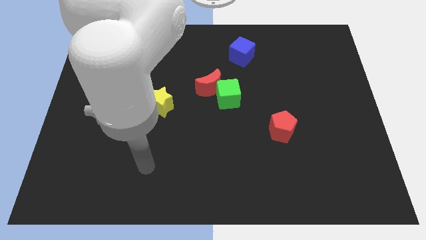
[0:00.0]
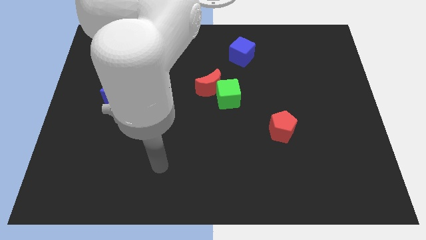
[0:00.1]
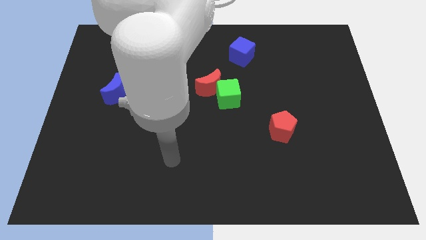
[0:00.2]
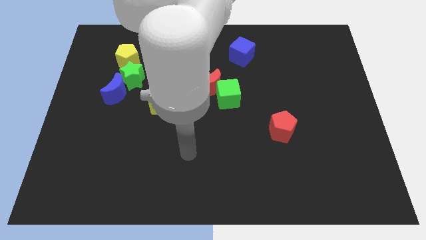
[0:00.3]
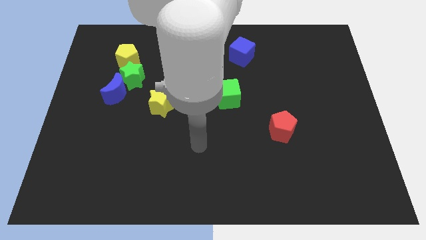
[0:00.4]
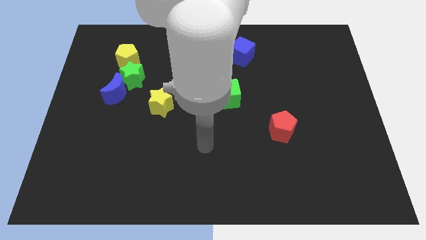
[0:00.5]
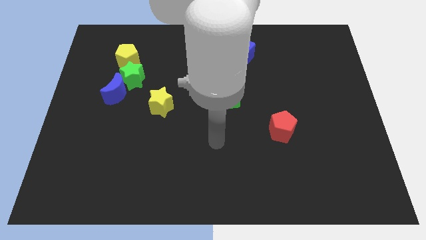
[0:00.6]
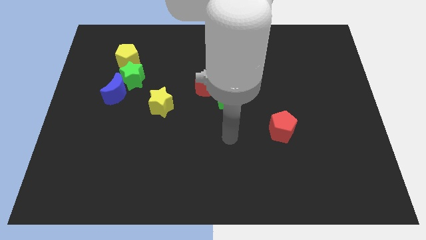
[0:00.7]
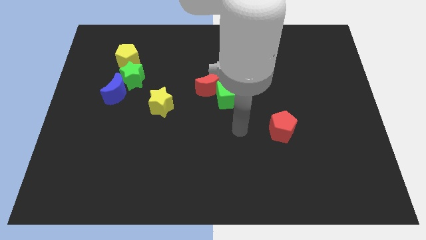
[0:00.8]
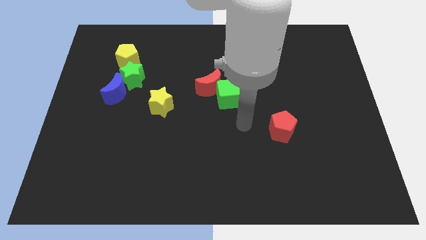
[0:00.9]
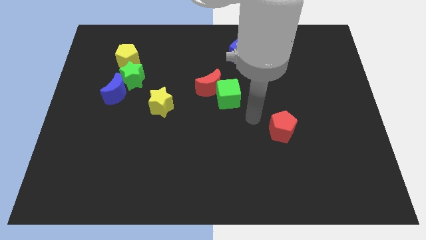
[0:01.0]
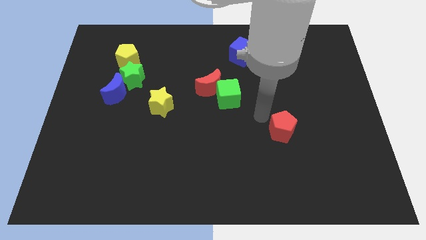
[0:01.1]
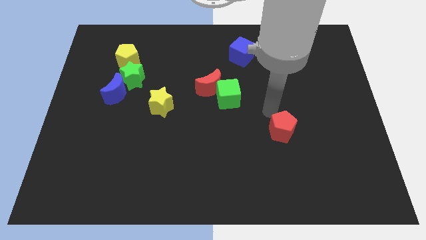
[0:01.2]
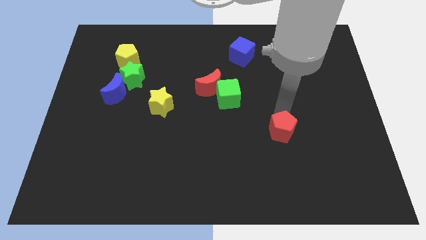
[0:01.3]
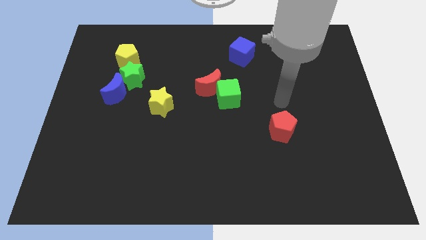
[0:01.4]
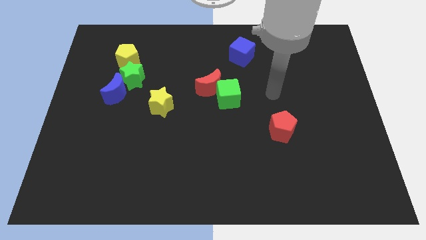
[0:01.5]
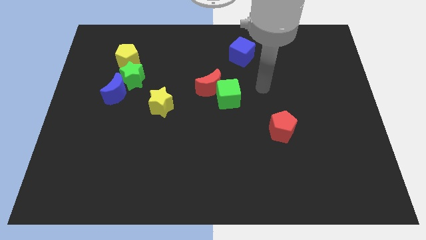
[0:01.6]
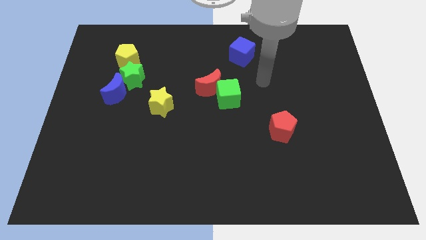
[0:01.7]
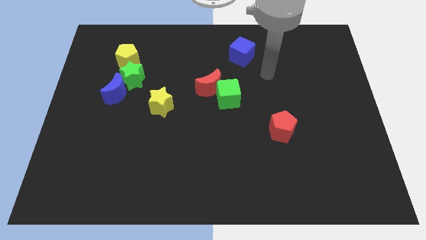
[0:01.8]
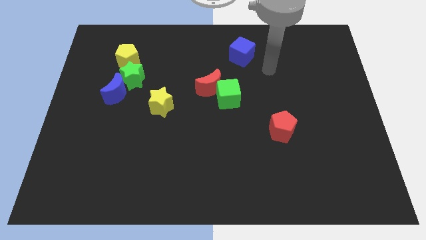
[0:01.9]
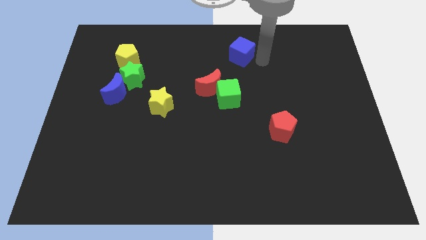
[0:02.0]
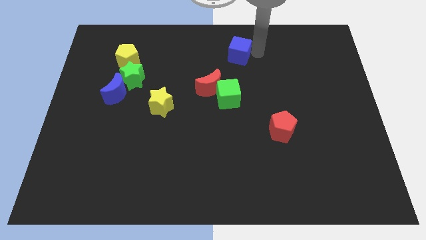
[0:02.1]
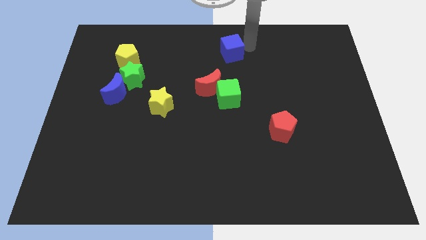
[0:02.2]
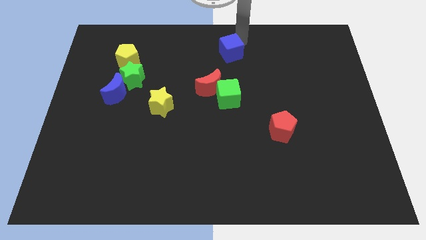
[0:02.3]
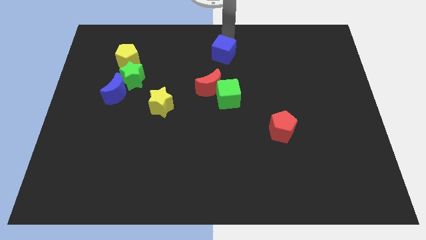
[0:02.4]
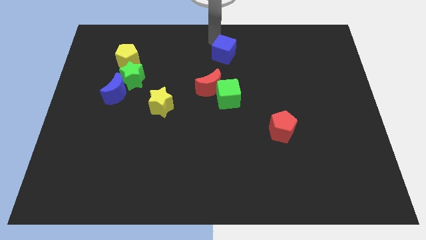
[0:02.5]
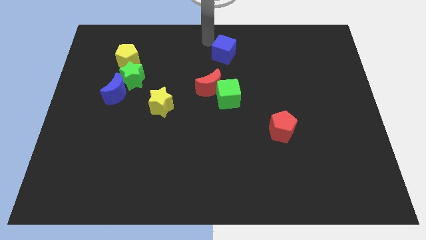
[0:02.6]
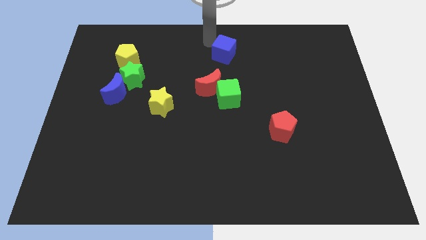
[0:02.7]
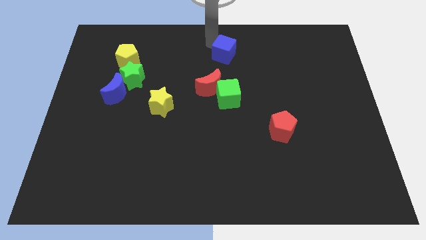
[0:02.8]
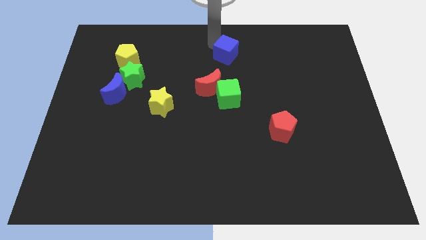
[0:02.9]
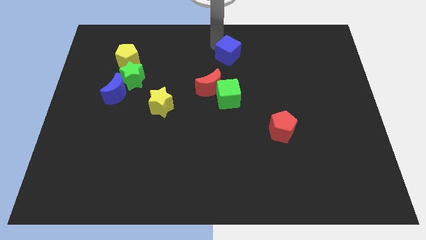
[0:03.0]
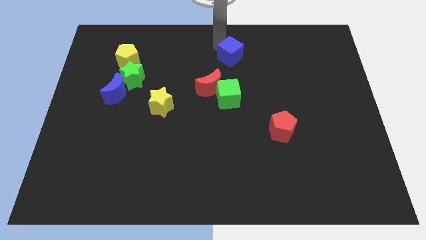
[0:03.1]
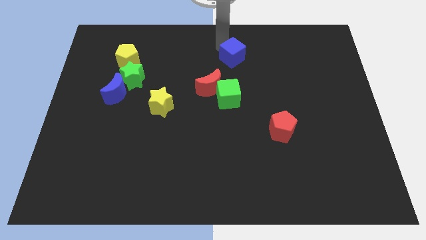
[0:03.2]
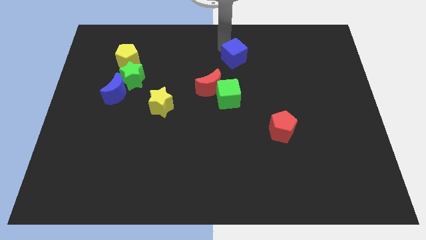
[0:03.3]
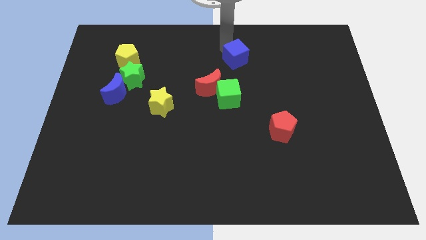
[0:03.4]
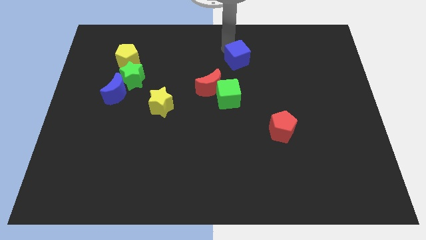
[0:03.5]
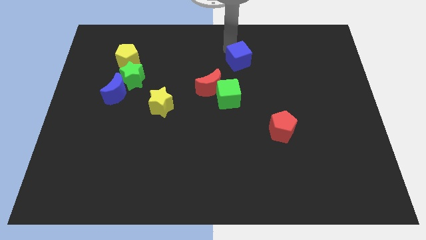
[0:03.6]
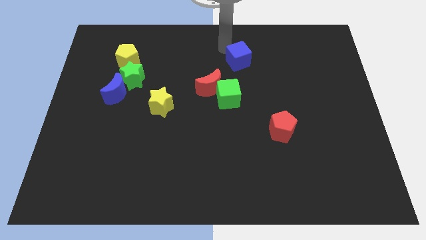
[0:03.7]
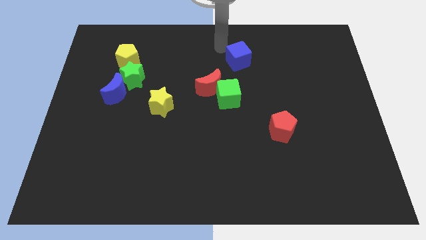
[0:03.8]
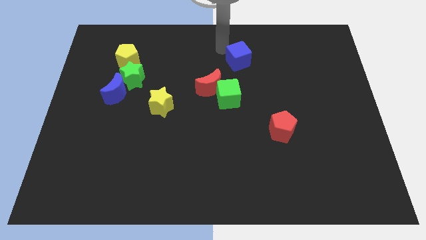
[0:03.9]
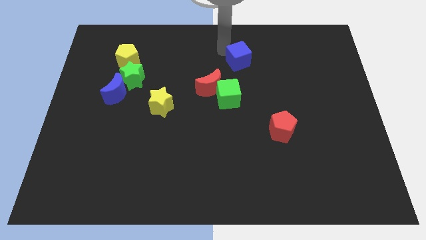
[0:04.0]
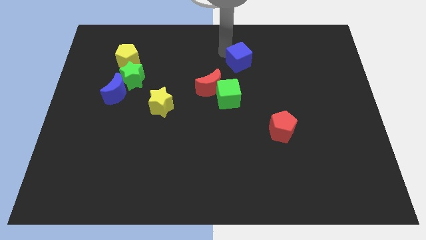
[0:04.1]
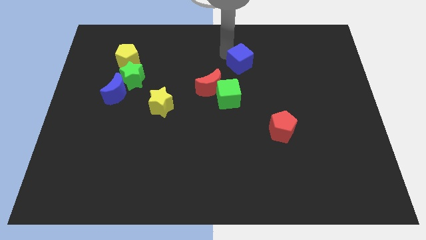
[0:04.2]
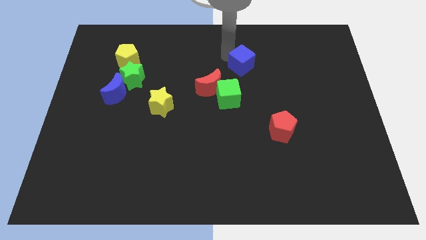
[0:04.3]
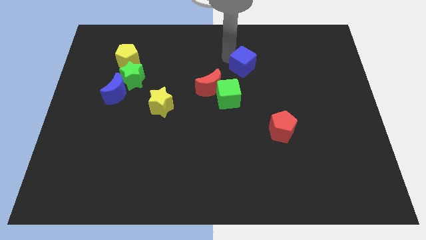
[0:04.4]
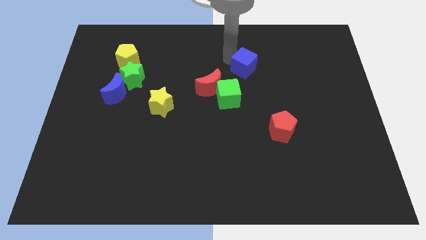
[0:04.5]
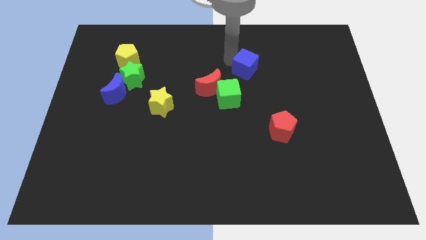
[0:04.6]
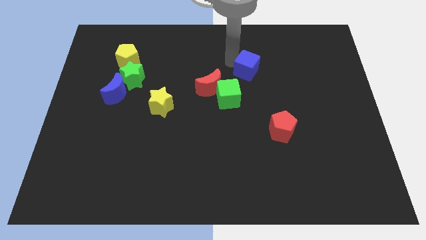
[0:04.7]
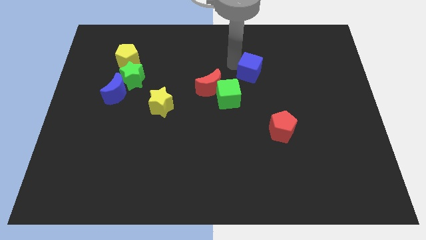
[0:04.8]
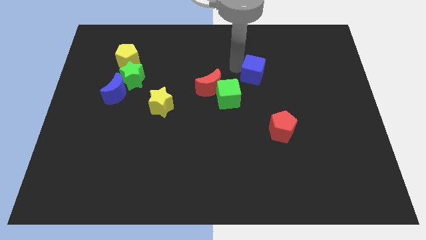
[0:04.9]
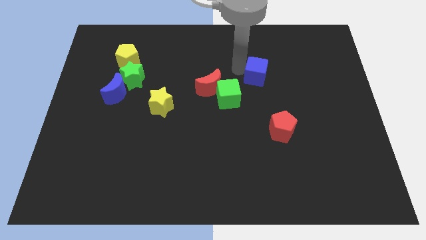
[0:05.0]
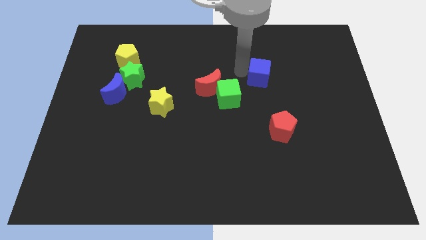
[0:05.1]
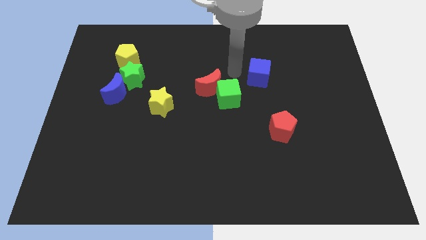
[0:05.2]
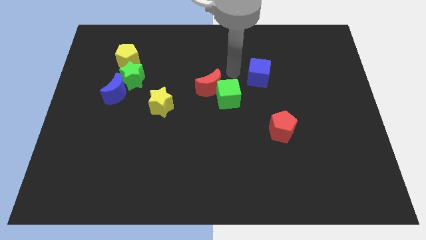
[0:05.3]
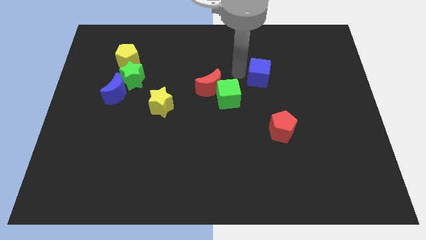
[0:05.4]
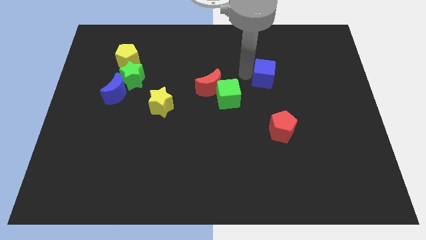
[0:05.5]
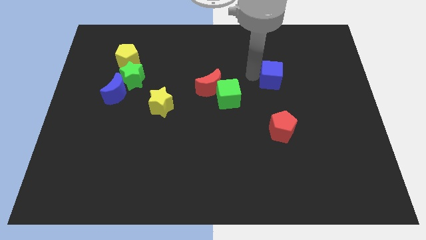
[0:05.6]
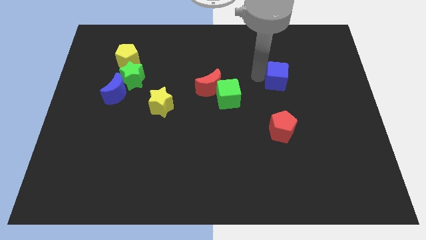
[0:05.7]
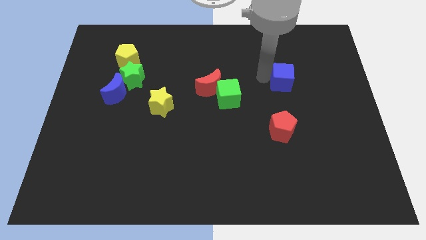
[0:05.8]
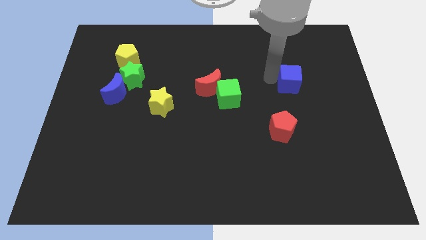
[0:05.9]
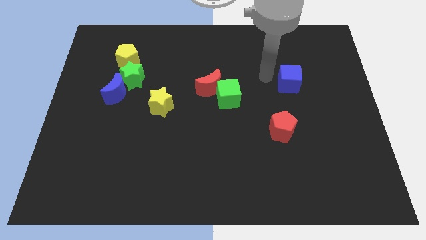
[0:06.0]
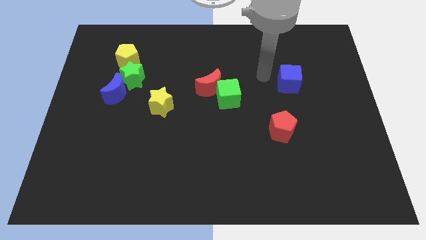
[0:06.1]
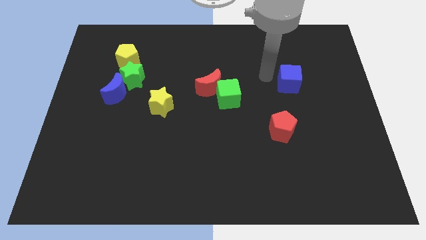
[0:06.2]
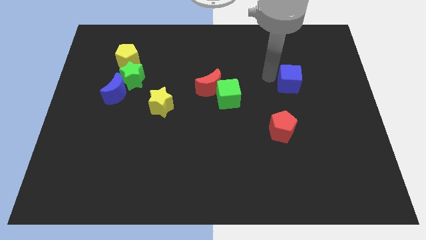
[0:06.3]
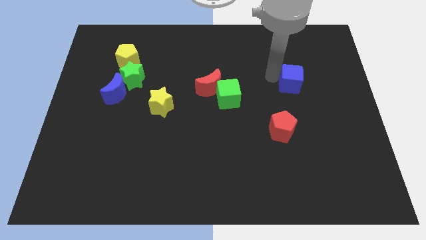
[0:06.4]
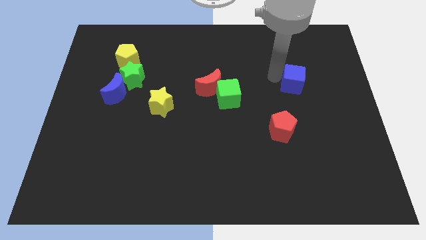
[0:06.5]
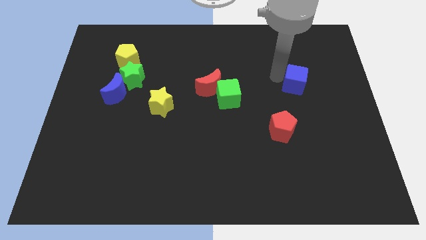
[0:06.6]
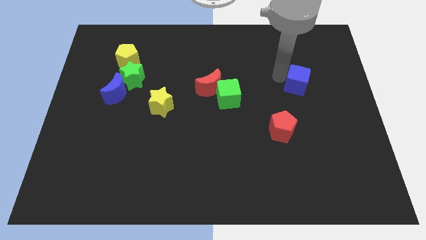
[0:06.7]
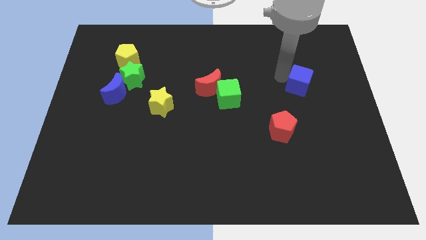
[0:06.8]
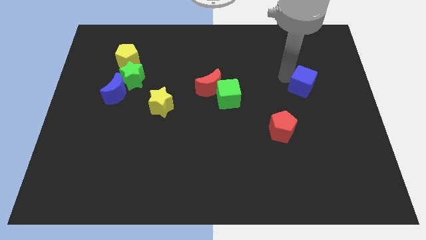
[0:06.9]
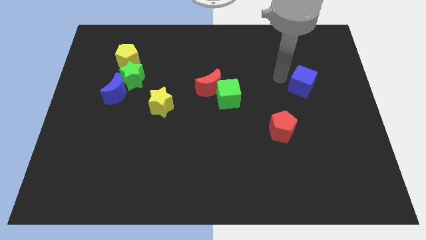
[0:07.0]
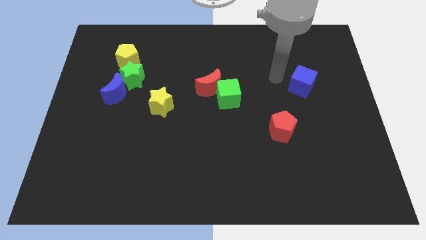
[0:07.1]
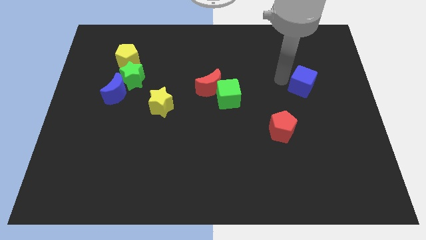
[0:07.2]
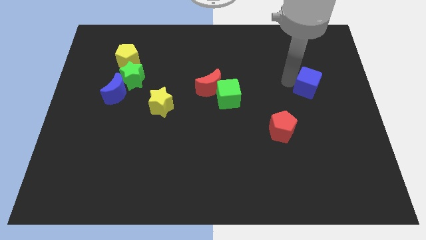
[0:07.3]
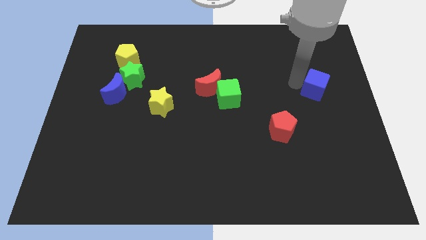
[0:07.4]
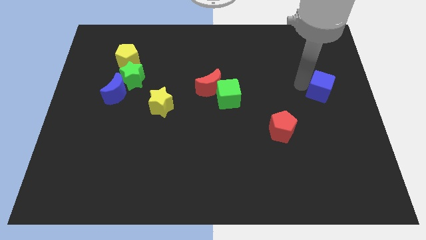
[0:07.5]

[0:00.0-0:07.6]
slide the blue cube to the center right
